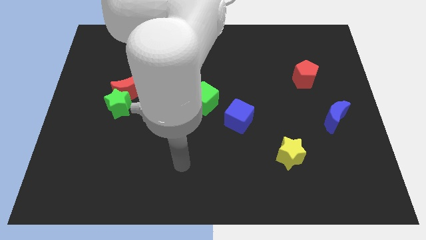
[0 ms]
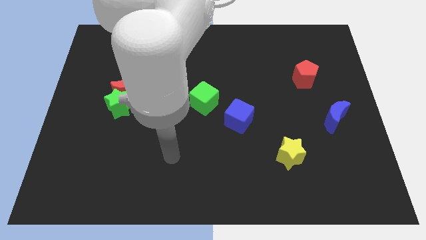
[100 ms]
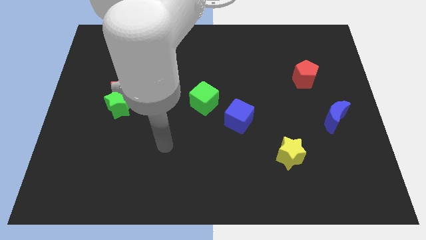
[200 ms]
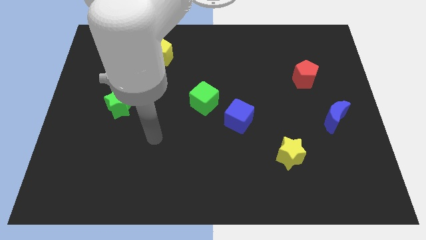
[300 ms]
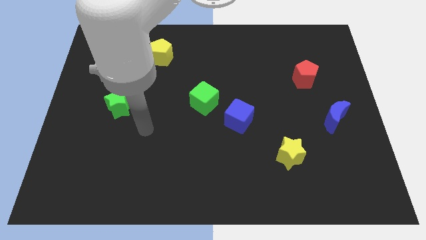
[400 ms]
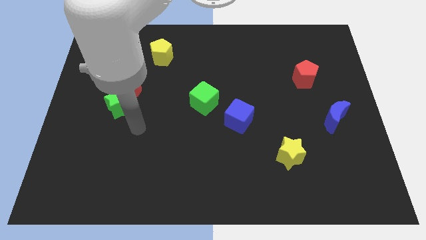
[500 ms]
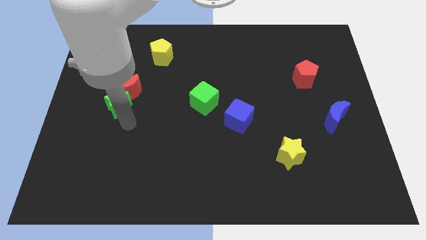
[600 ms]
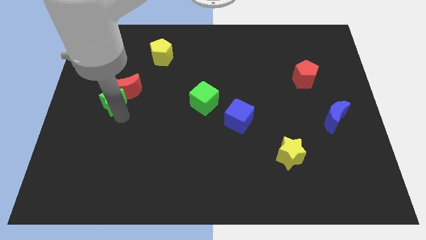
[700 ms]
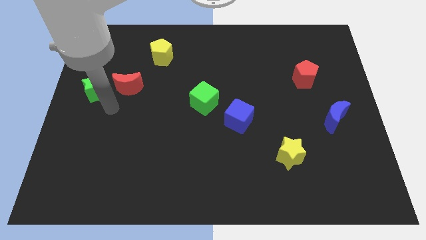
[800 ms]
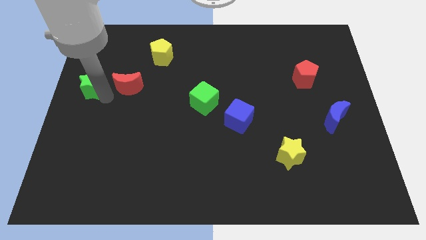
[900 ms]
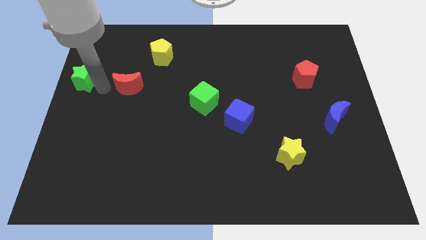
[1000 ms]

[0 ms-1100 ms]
pull the red moon apart from the green star

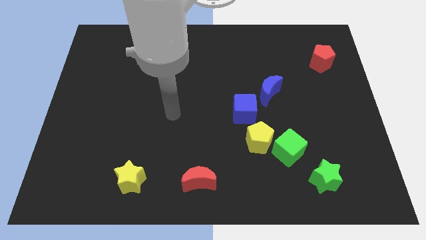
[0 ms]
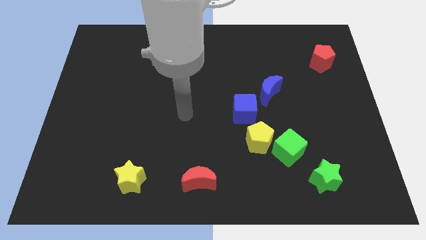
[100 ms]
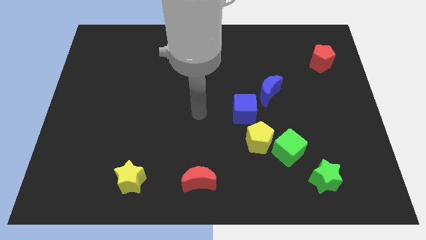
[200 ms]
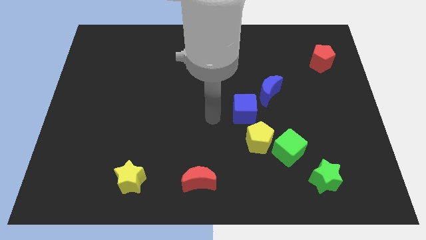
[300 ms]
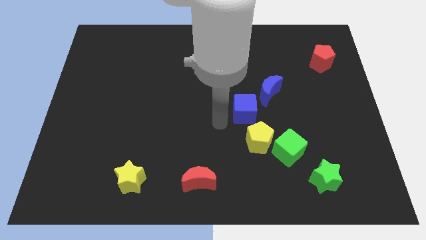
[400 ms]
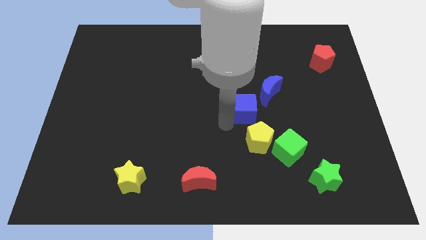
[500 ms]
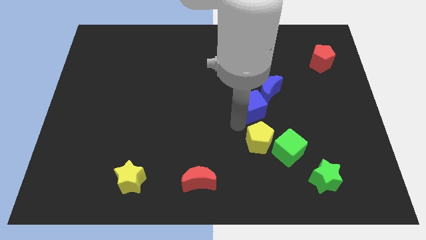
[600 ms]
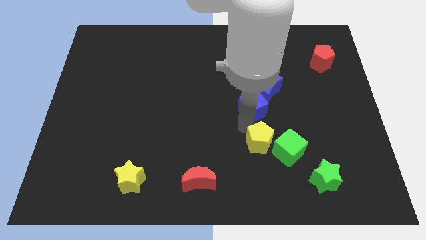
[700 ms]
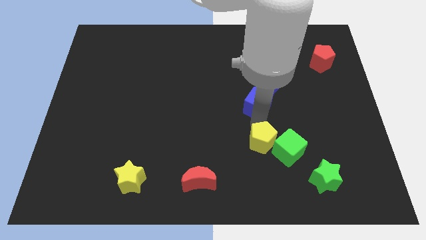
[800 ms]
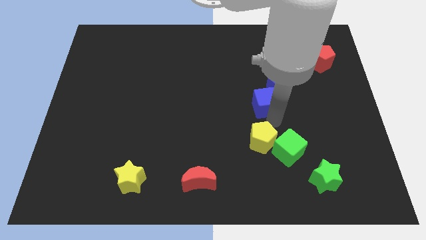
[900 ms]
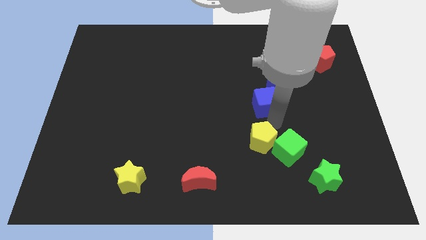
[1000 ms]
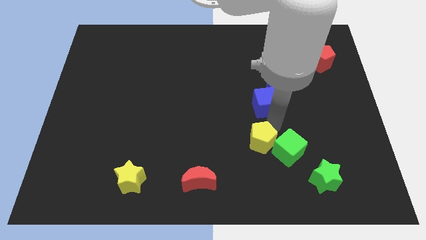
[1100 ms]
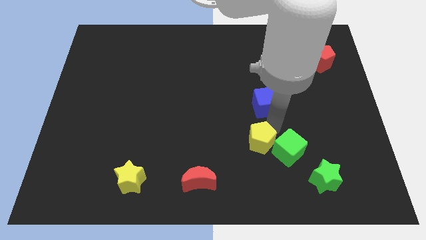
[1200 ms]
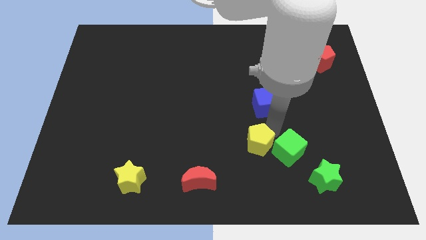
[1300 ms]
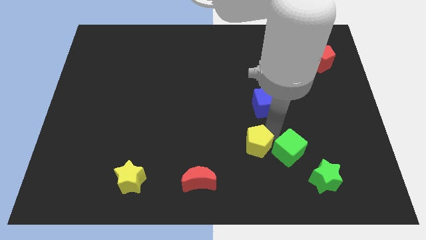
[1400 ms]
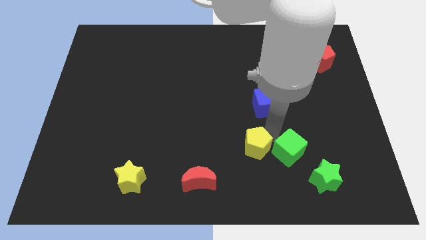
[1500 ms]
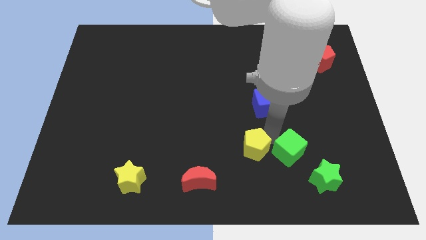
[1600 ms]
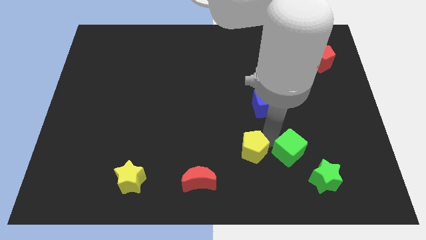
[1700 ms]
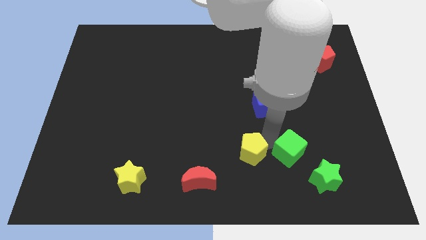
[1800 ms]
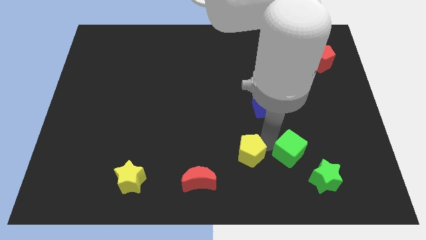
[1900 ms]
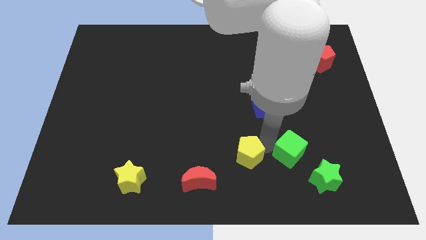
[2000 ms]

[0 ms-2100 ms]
move the yellow pentagon away from the green cube and blue cube

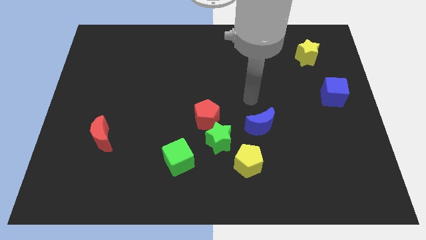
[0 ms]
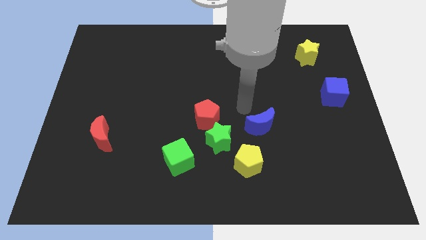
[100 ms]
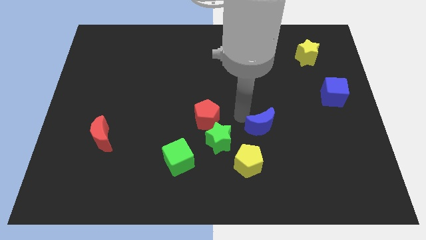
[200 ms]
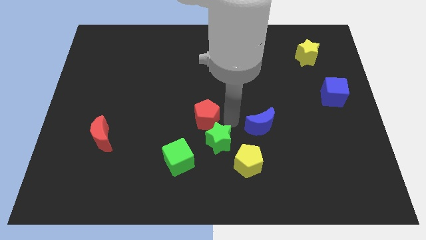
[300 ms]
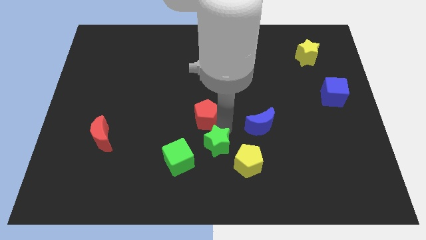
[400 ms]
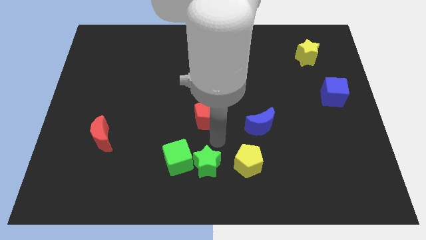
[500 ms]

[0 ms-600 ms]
separate the red pentagon from the green star

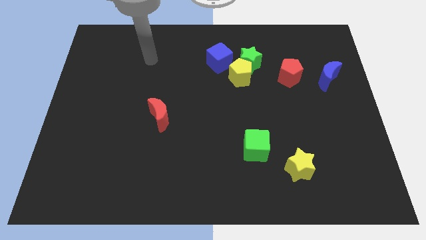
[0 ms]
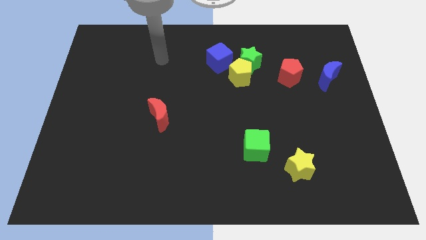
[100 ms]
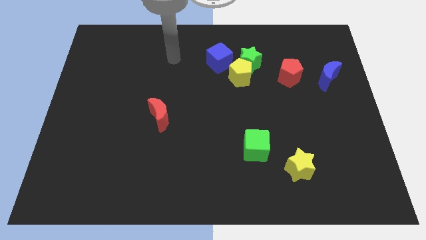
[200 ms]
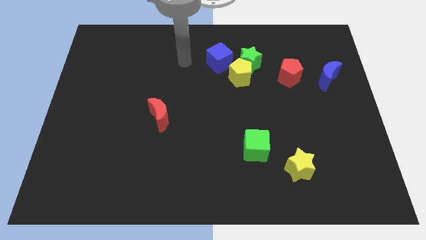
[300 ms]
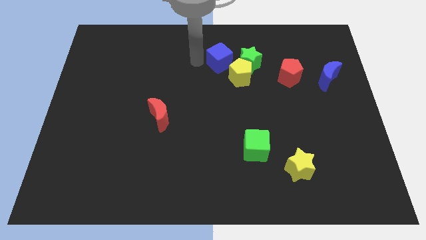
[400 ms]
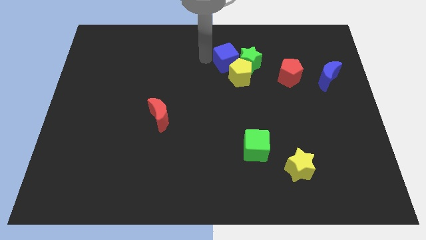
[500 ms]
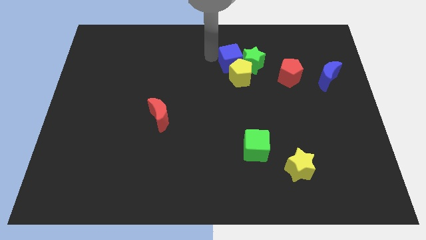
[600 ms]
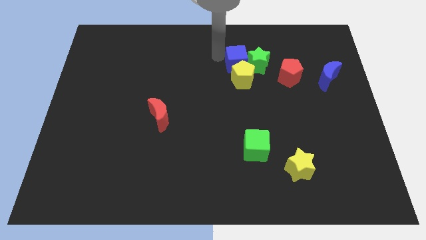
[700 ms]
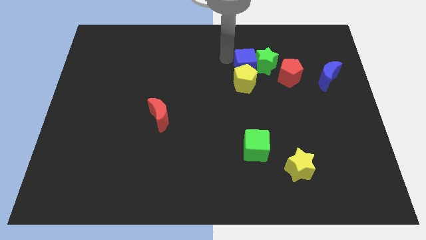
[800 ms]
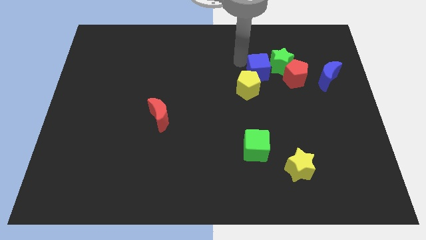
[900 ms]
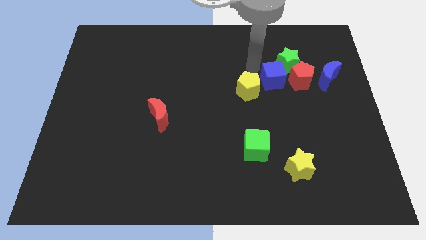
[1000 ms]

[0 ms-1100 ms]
separate the yellow pentagon from the green star and blue cube

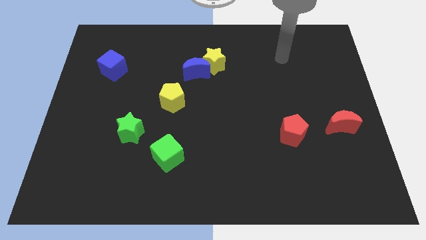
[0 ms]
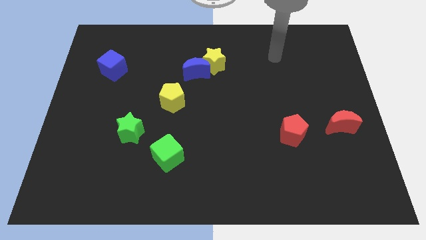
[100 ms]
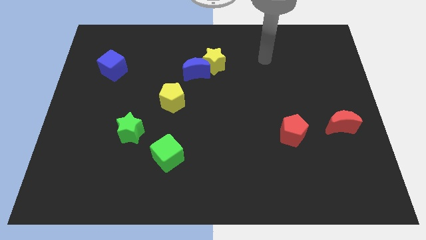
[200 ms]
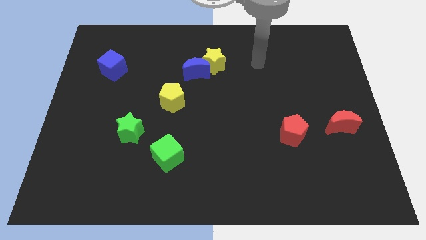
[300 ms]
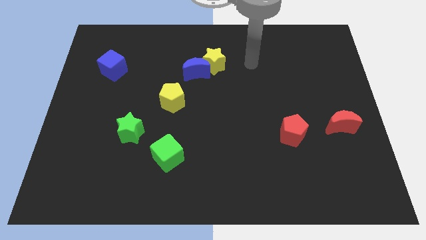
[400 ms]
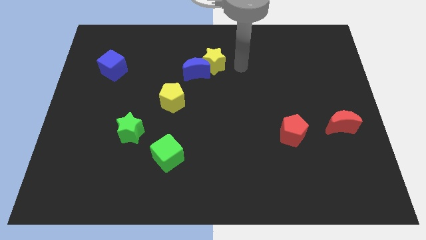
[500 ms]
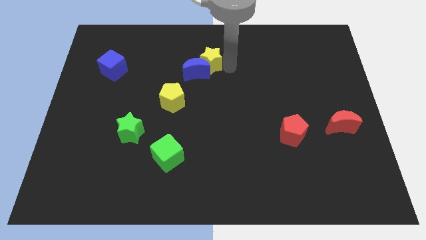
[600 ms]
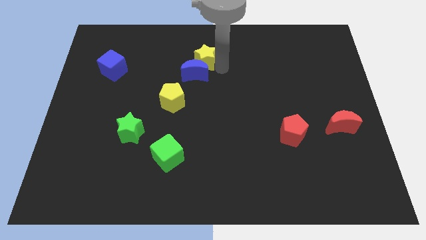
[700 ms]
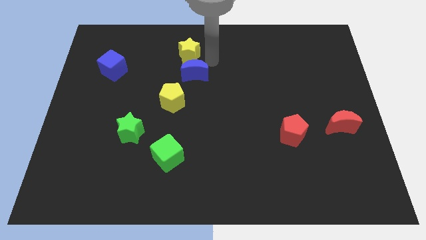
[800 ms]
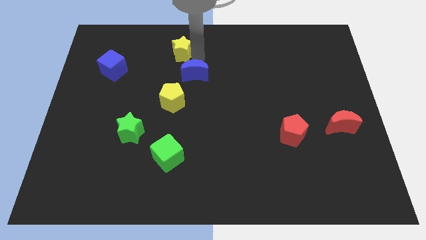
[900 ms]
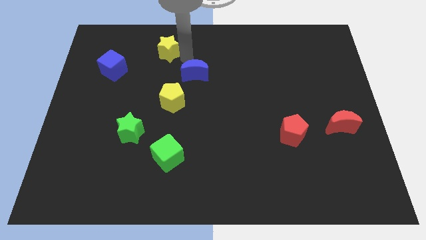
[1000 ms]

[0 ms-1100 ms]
pull the blue moon apart from the yellow star

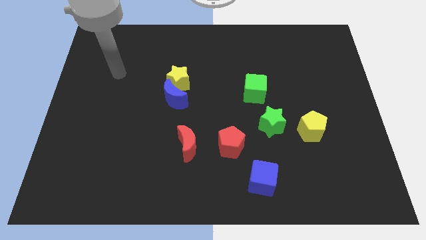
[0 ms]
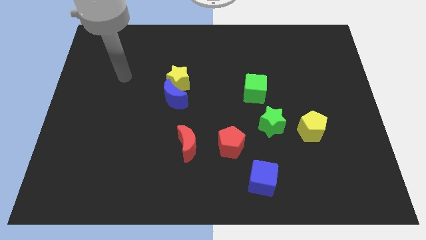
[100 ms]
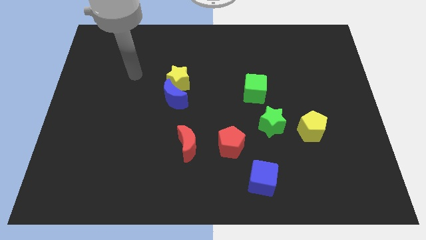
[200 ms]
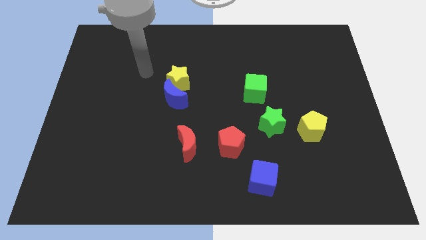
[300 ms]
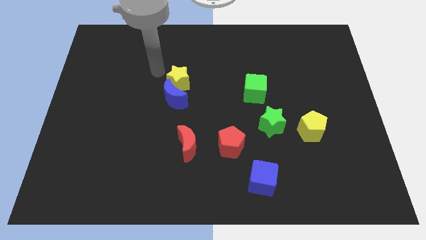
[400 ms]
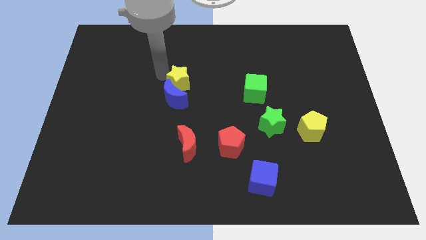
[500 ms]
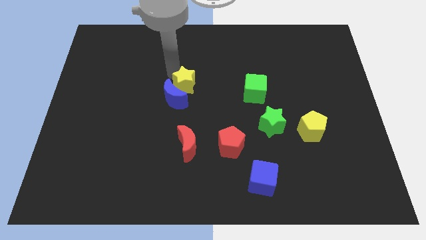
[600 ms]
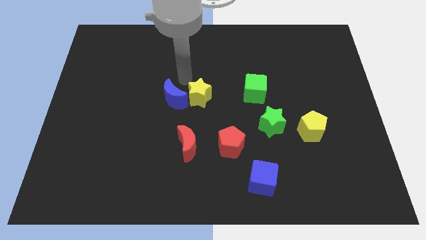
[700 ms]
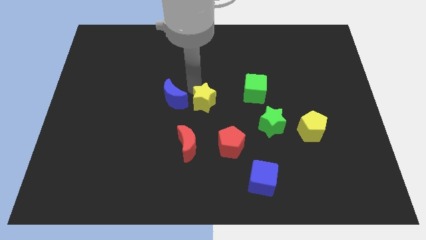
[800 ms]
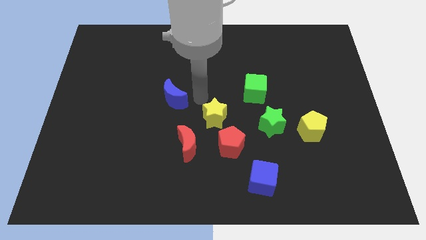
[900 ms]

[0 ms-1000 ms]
move the blue moon away from the yellow star

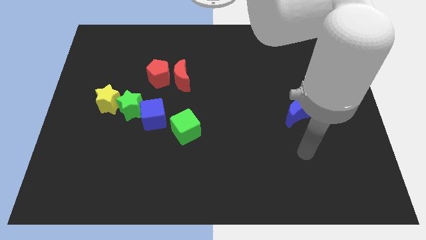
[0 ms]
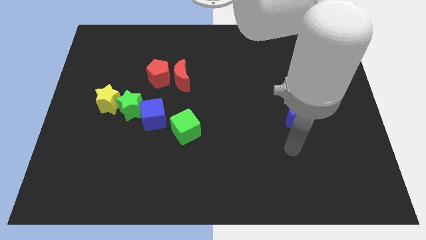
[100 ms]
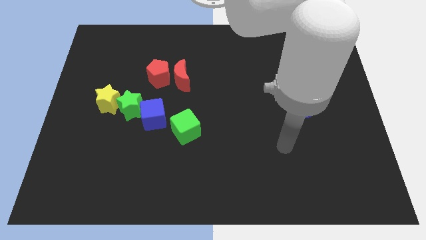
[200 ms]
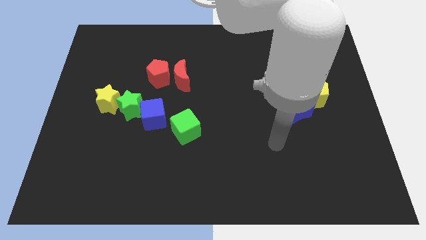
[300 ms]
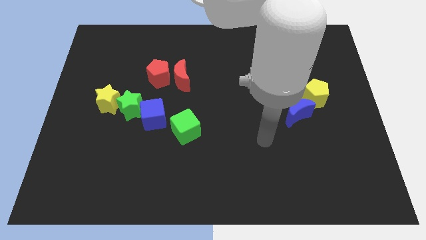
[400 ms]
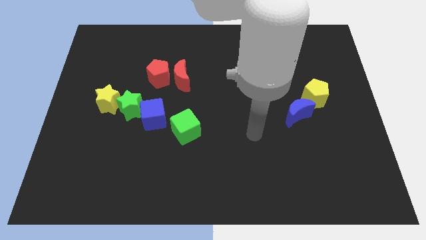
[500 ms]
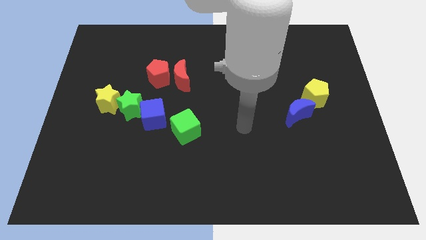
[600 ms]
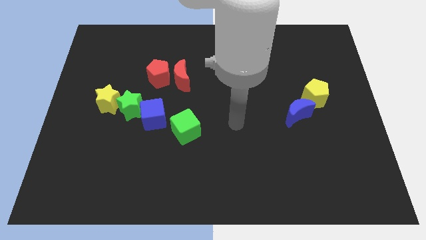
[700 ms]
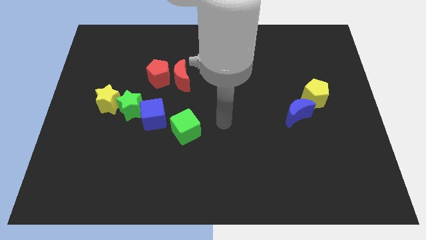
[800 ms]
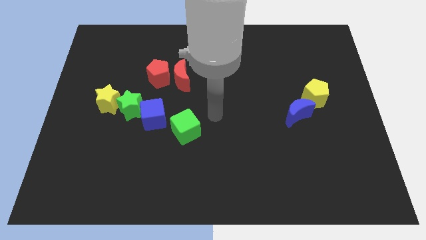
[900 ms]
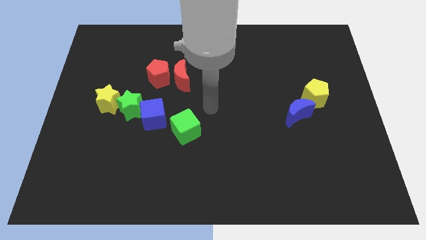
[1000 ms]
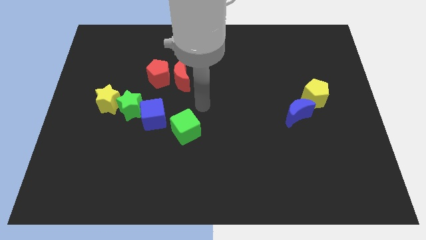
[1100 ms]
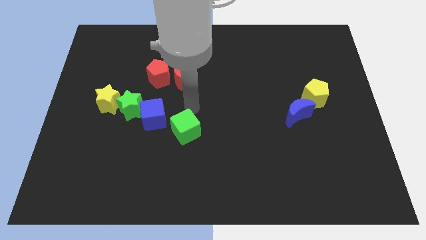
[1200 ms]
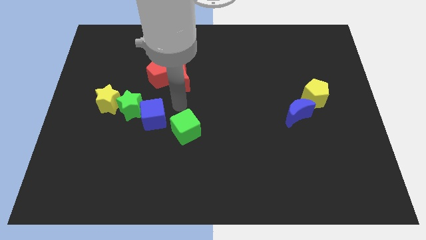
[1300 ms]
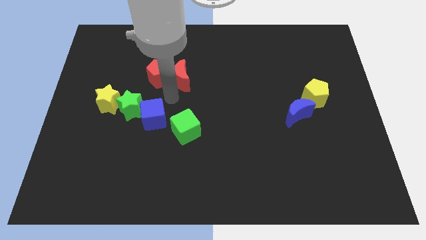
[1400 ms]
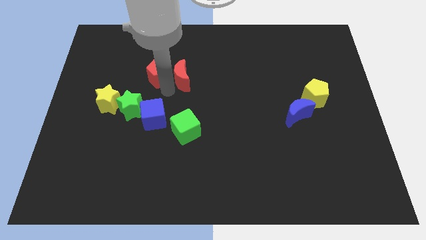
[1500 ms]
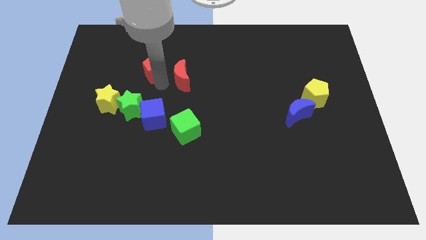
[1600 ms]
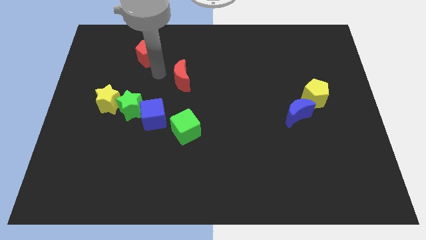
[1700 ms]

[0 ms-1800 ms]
separate the red moon from the red pentagon

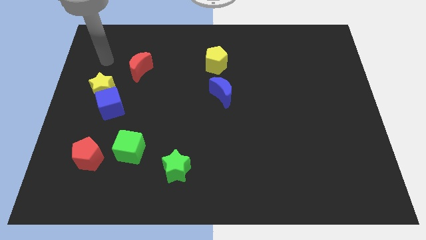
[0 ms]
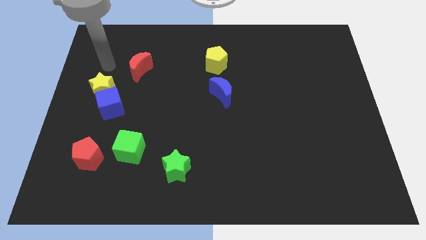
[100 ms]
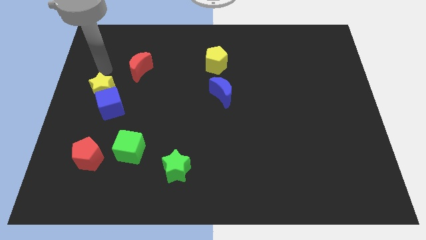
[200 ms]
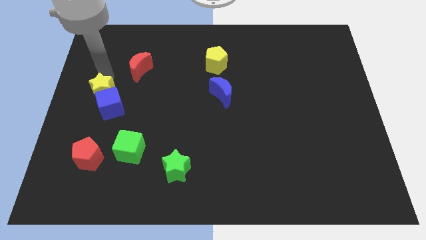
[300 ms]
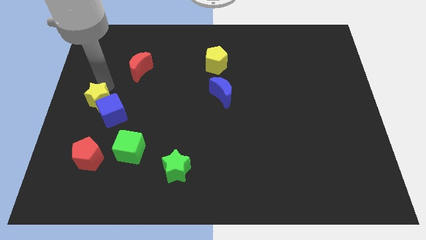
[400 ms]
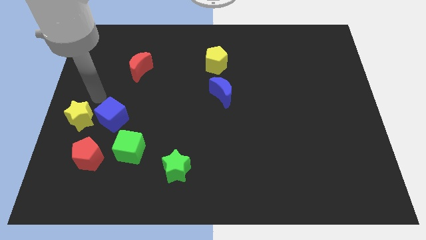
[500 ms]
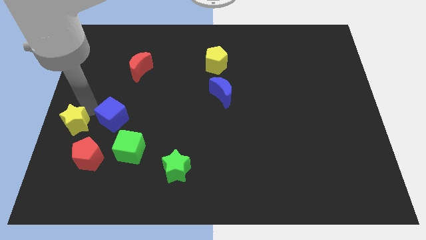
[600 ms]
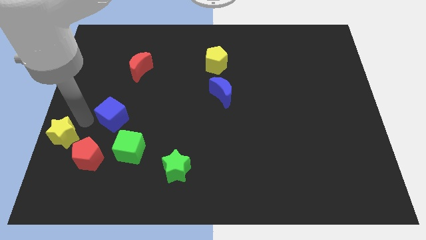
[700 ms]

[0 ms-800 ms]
move the blue cube away from the yellow star
